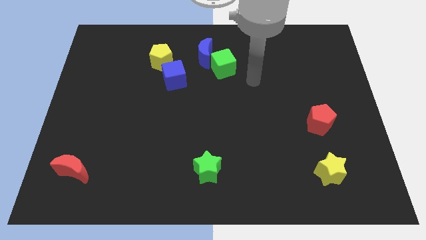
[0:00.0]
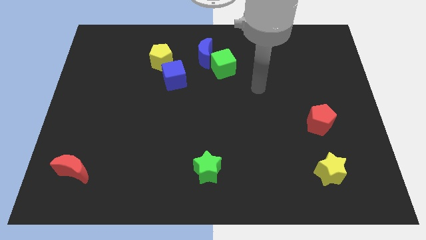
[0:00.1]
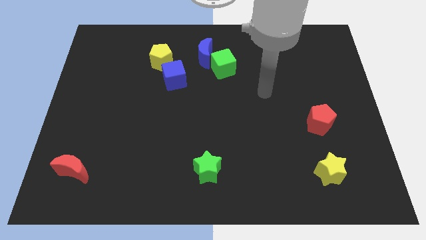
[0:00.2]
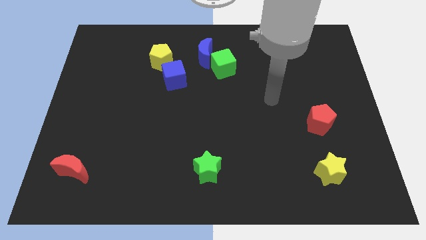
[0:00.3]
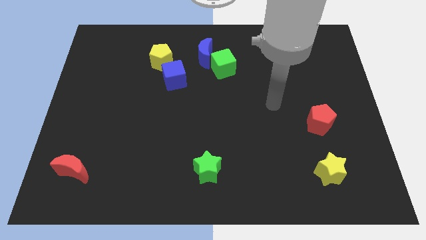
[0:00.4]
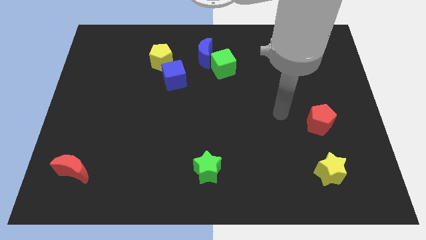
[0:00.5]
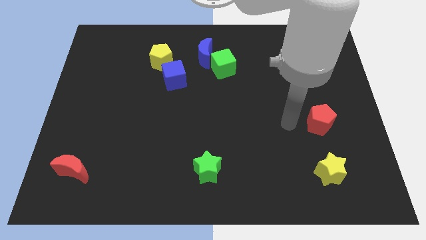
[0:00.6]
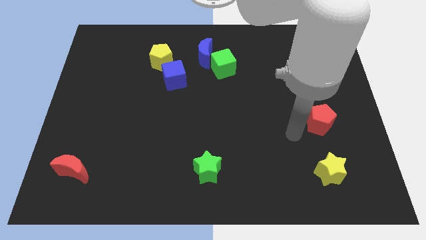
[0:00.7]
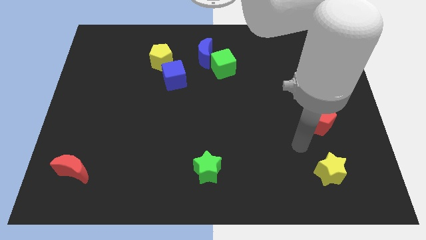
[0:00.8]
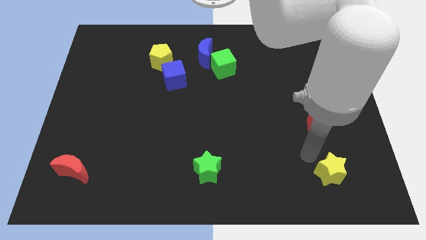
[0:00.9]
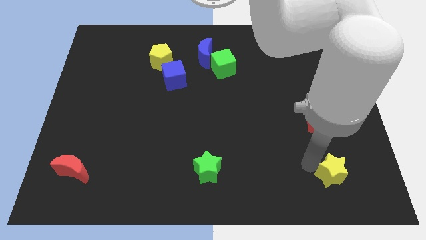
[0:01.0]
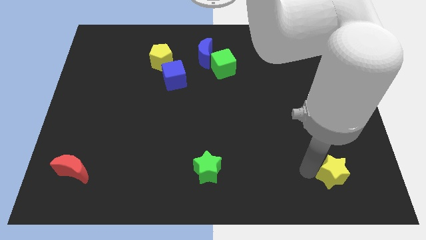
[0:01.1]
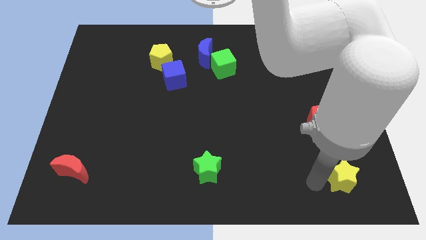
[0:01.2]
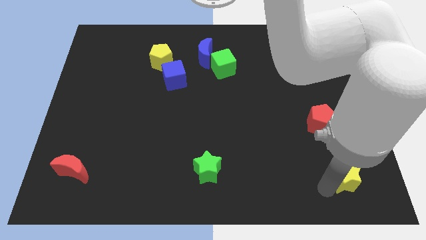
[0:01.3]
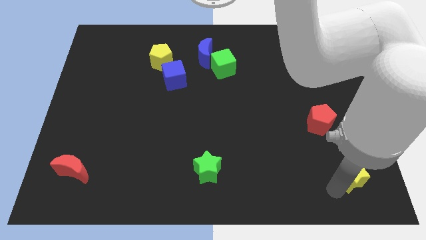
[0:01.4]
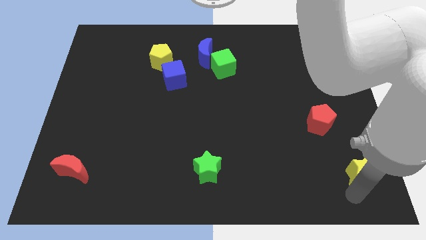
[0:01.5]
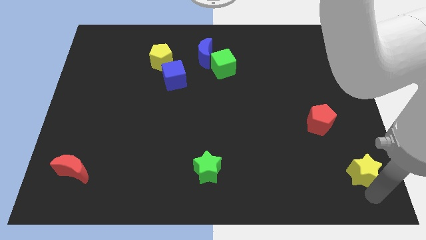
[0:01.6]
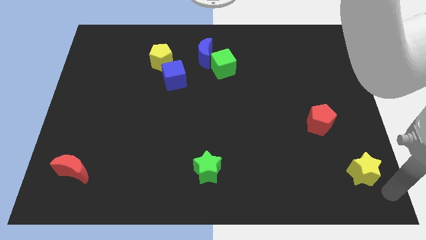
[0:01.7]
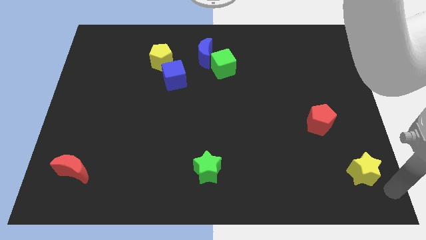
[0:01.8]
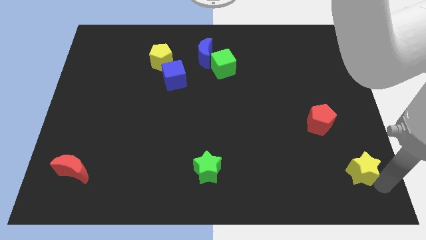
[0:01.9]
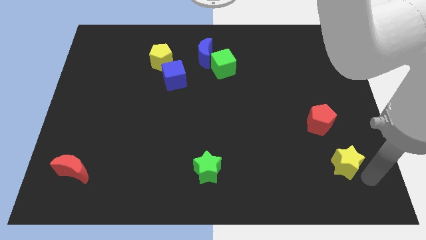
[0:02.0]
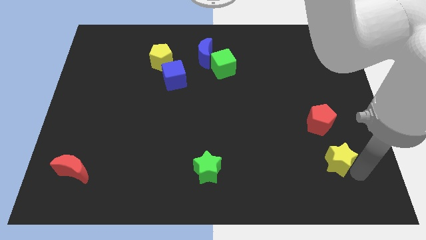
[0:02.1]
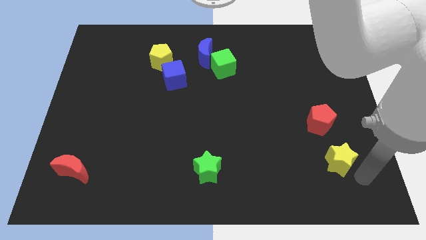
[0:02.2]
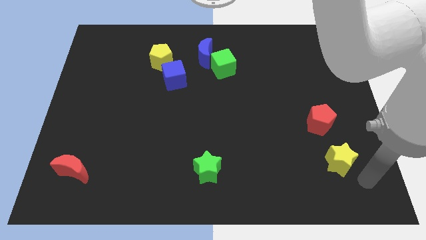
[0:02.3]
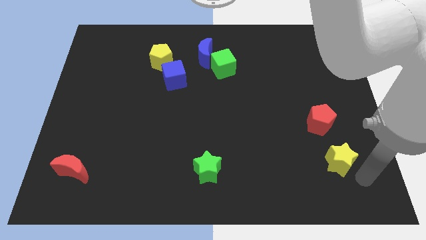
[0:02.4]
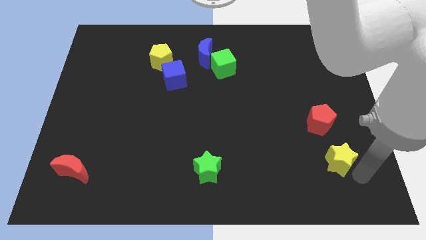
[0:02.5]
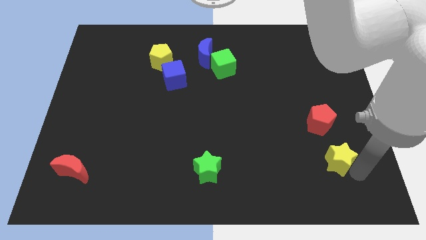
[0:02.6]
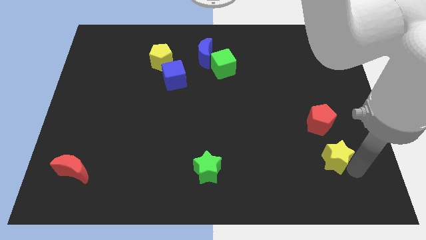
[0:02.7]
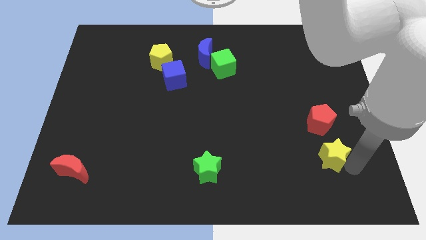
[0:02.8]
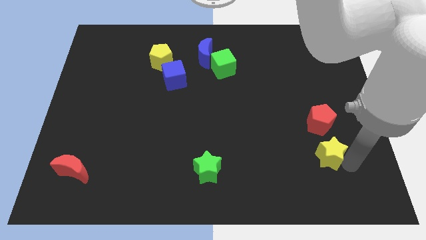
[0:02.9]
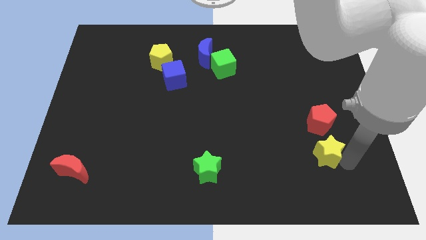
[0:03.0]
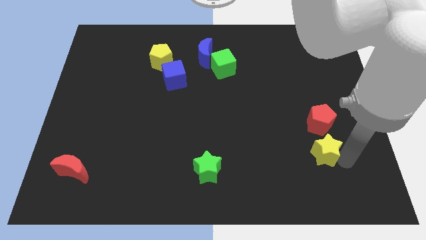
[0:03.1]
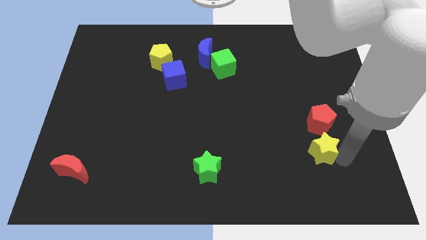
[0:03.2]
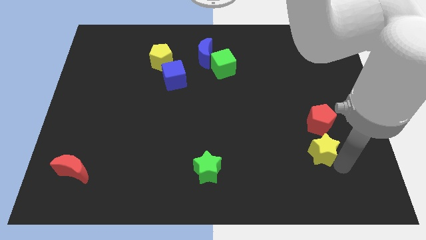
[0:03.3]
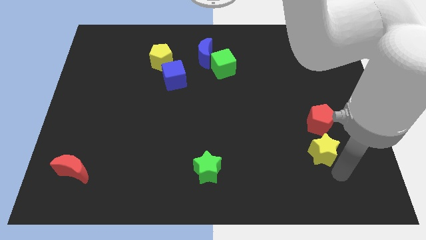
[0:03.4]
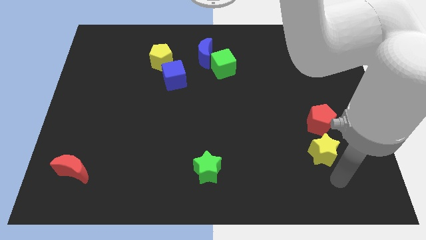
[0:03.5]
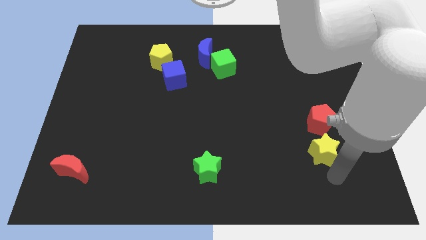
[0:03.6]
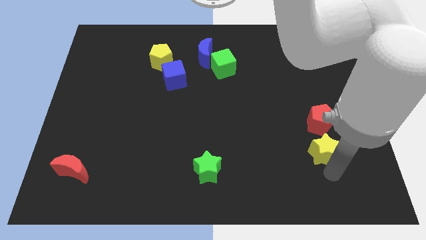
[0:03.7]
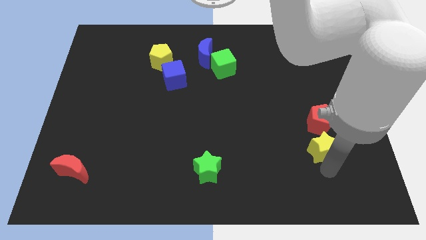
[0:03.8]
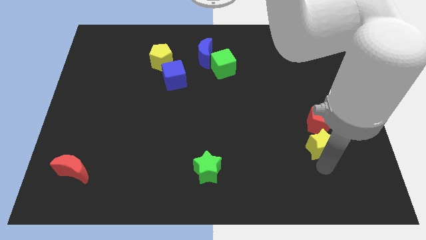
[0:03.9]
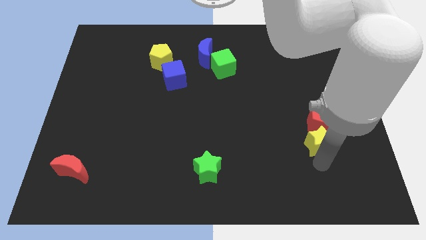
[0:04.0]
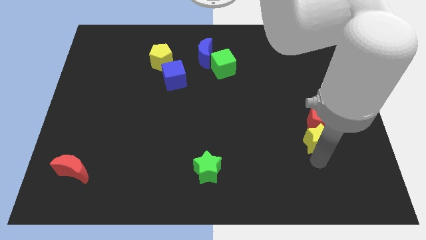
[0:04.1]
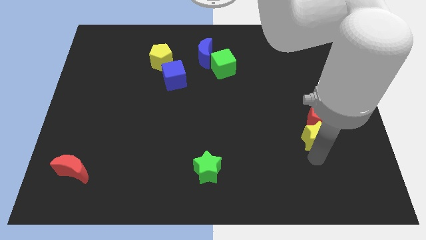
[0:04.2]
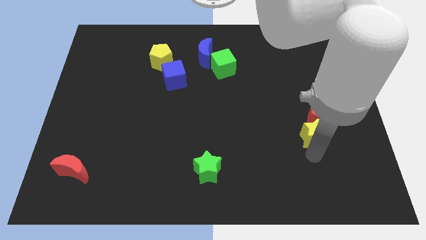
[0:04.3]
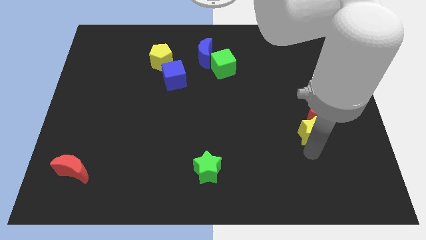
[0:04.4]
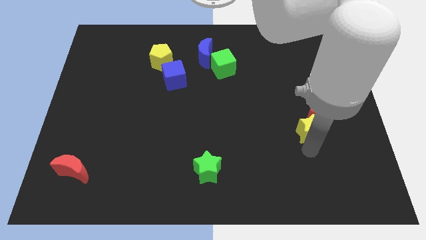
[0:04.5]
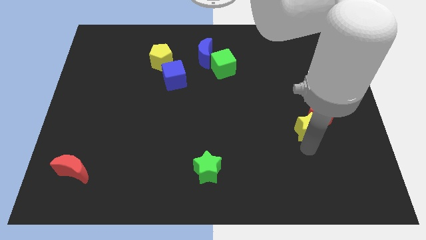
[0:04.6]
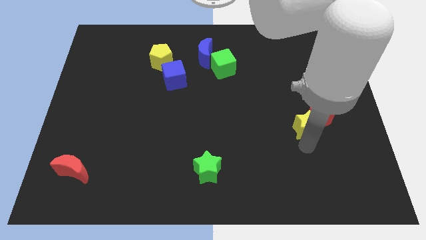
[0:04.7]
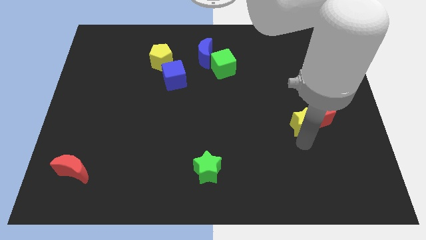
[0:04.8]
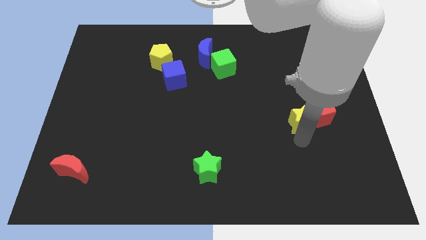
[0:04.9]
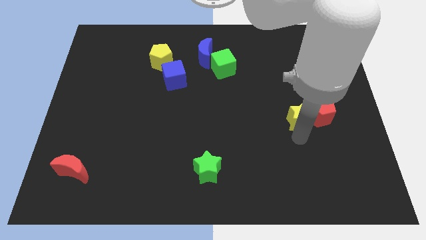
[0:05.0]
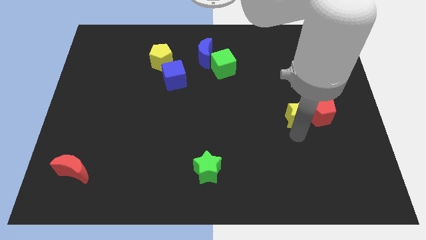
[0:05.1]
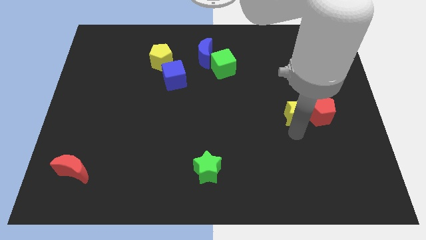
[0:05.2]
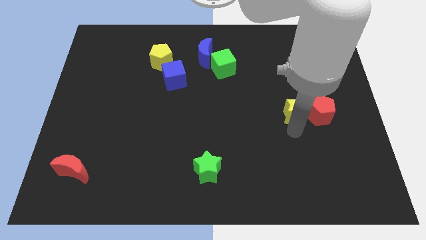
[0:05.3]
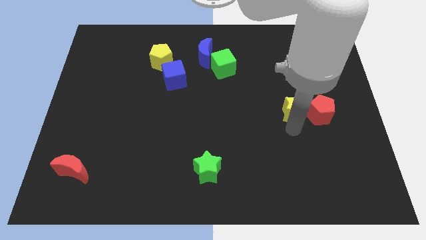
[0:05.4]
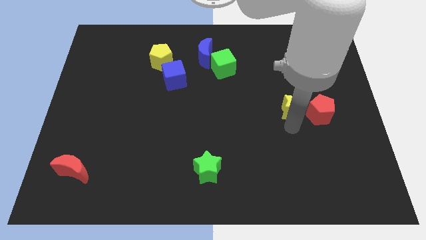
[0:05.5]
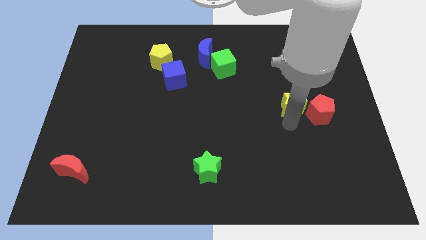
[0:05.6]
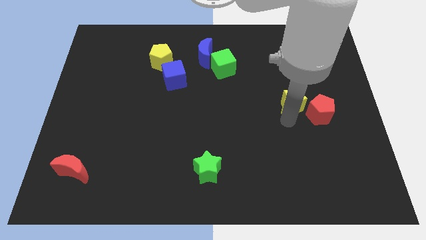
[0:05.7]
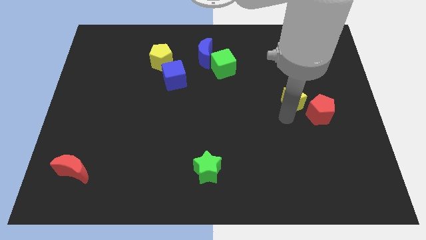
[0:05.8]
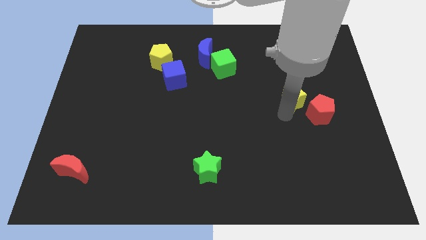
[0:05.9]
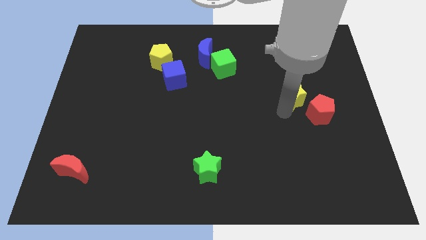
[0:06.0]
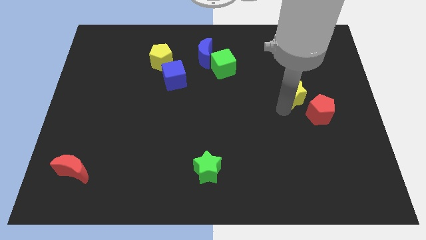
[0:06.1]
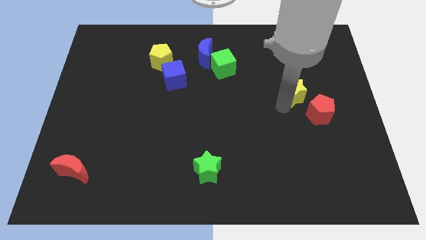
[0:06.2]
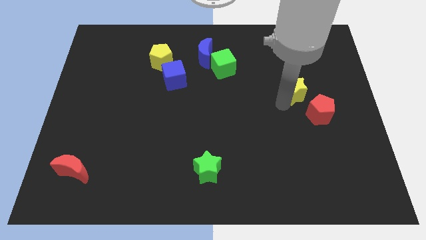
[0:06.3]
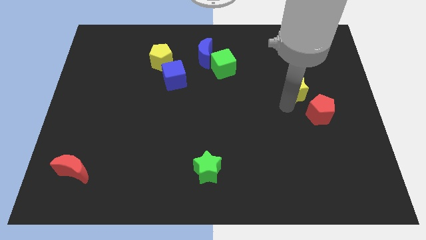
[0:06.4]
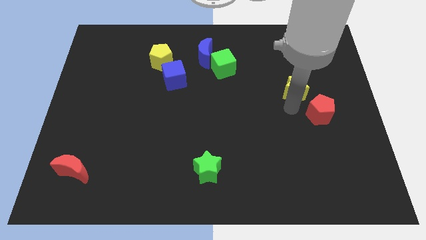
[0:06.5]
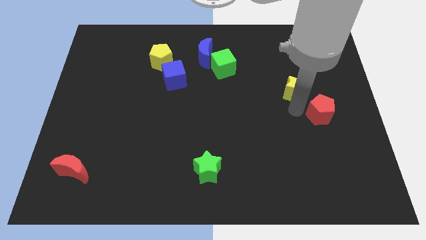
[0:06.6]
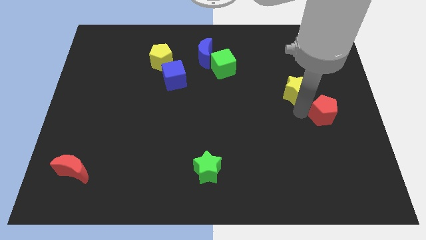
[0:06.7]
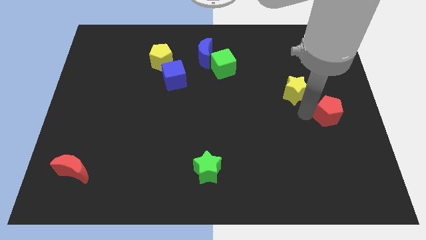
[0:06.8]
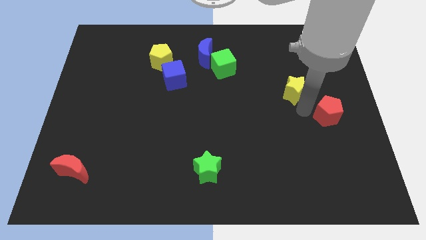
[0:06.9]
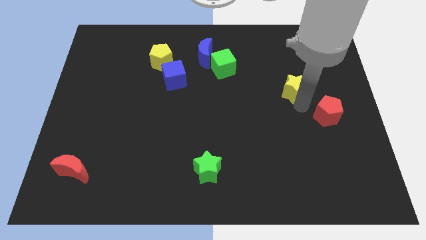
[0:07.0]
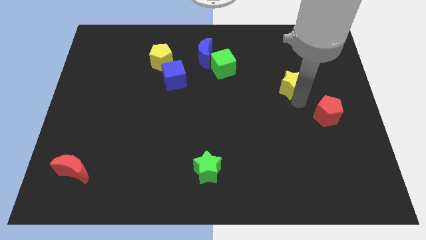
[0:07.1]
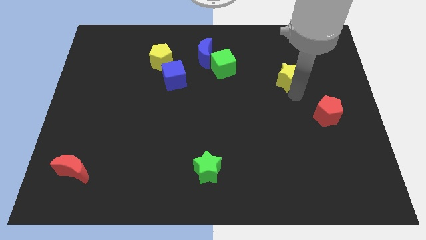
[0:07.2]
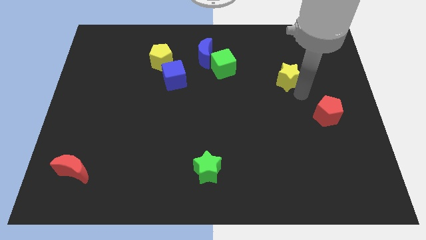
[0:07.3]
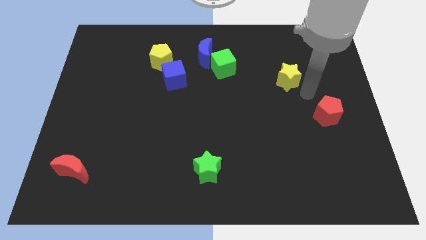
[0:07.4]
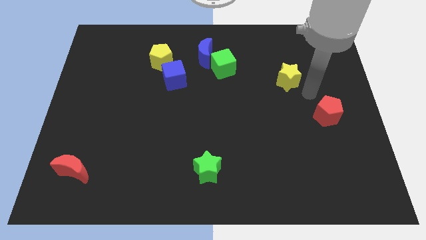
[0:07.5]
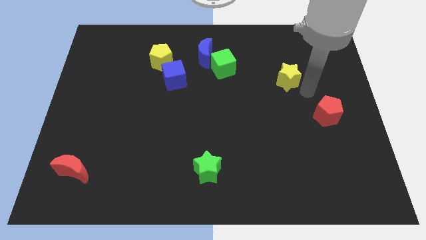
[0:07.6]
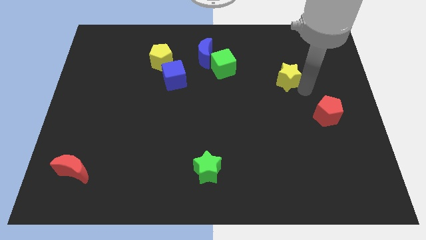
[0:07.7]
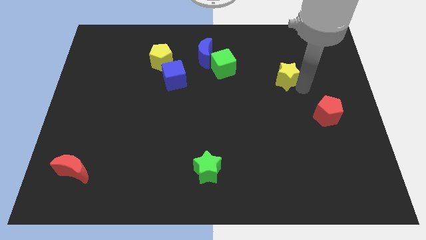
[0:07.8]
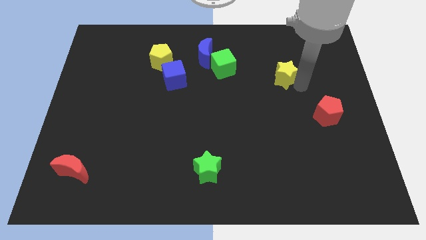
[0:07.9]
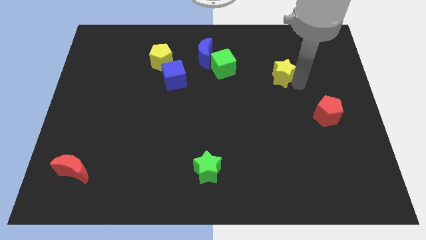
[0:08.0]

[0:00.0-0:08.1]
push the yellow star to the right side of the green cube

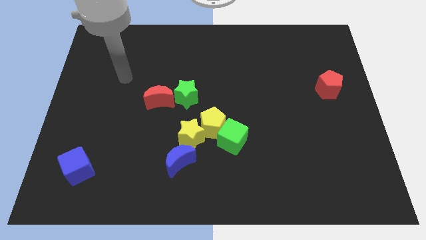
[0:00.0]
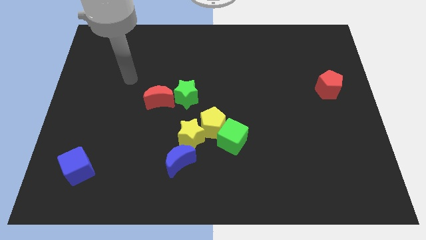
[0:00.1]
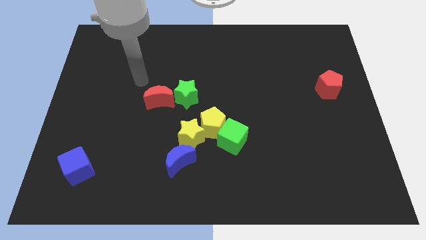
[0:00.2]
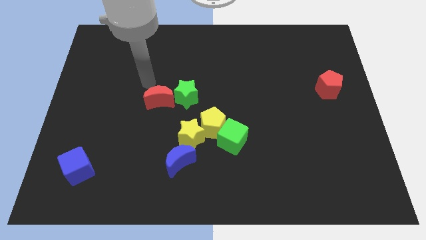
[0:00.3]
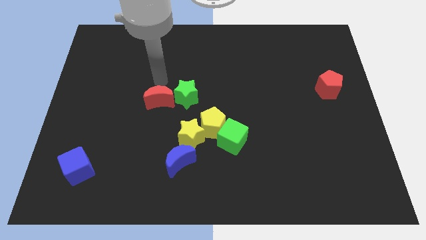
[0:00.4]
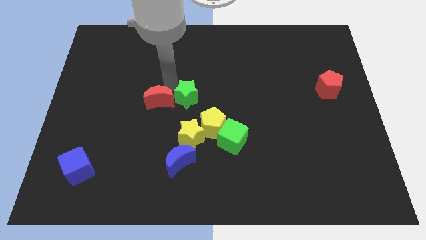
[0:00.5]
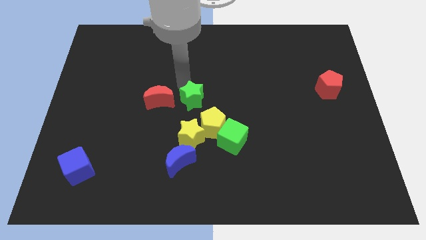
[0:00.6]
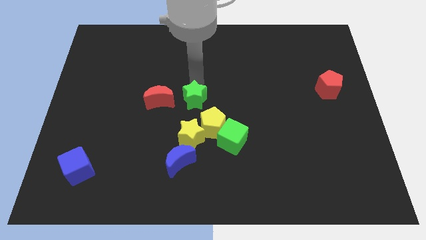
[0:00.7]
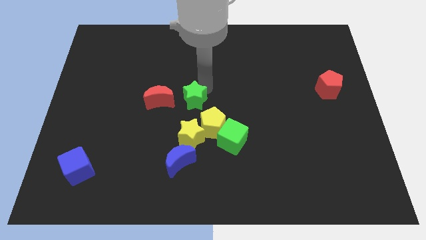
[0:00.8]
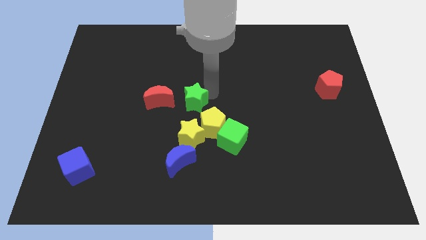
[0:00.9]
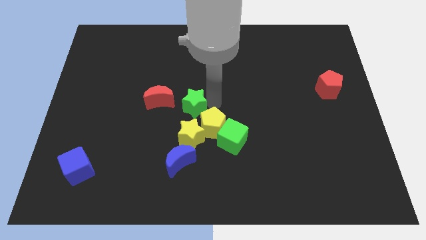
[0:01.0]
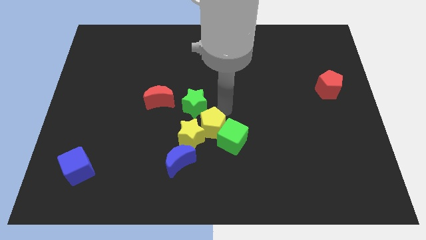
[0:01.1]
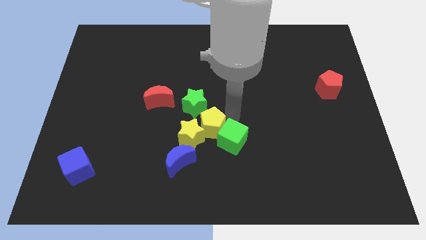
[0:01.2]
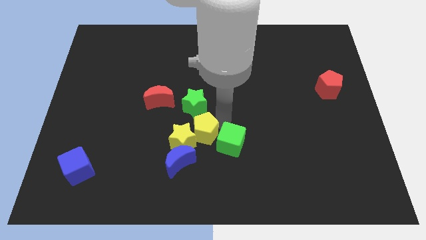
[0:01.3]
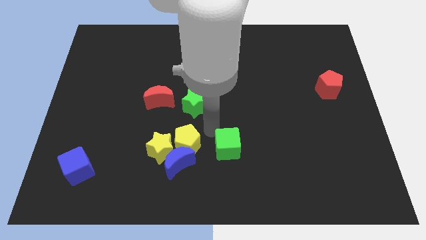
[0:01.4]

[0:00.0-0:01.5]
move the yellow star left of the blue moon
